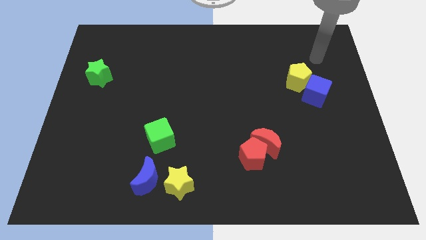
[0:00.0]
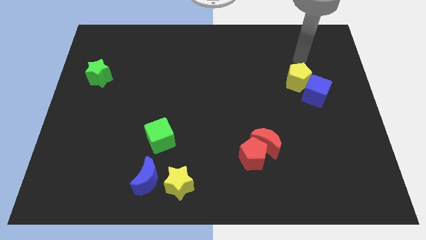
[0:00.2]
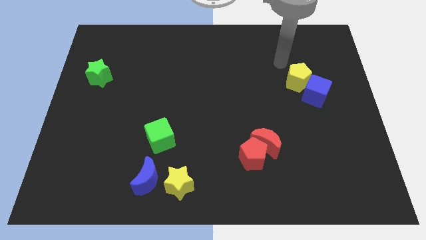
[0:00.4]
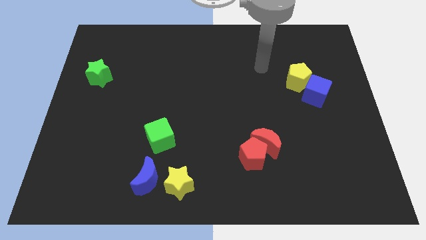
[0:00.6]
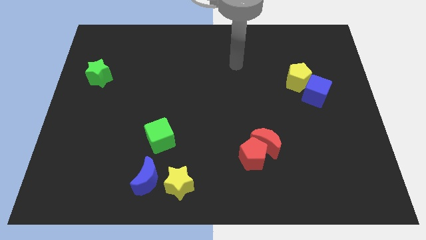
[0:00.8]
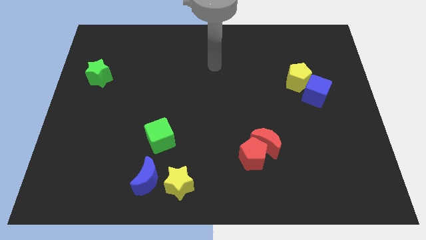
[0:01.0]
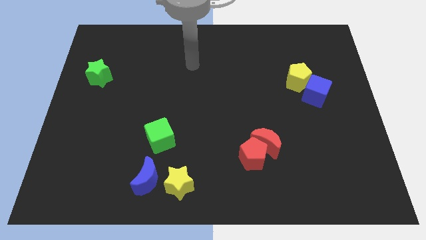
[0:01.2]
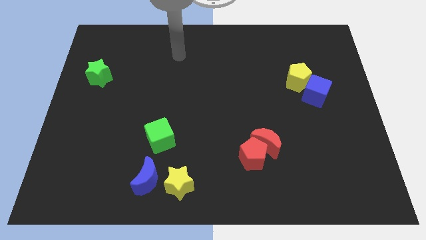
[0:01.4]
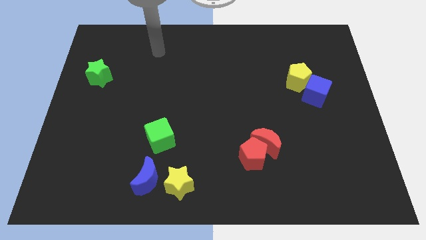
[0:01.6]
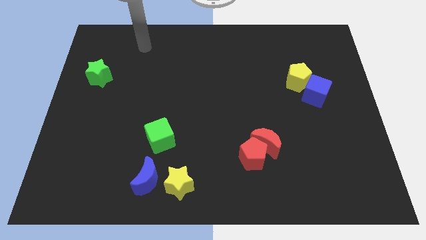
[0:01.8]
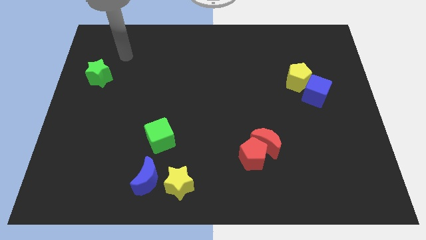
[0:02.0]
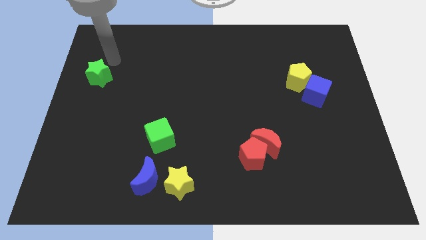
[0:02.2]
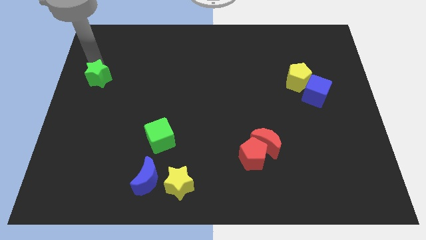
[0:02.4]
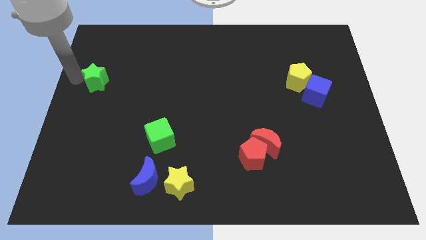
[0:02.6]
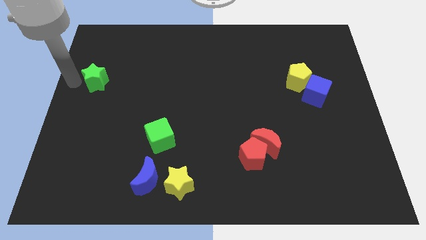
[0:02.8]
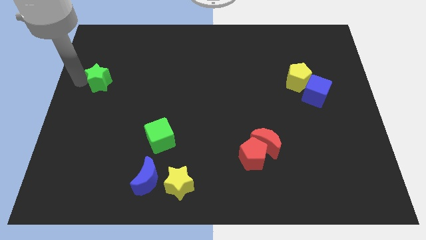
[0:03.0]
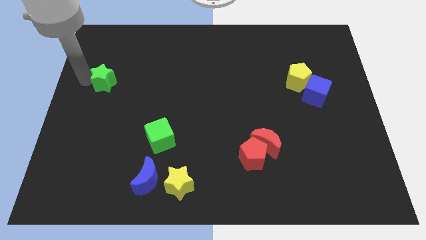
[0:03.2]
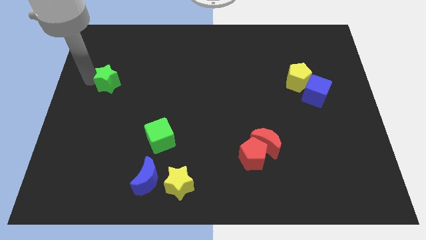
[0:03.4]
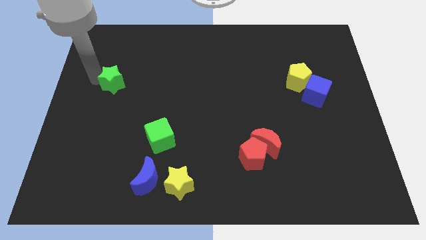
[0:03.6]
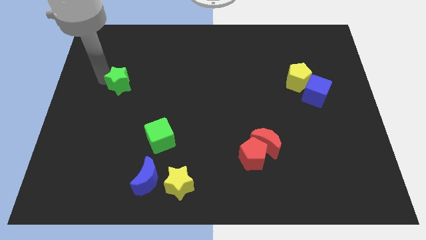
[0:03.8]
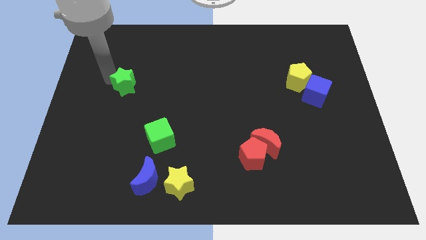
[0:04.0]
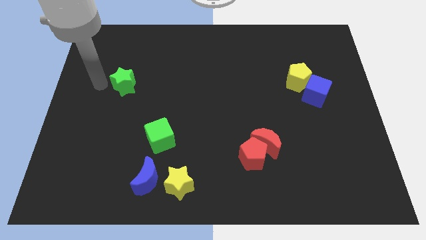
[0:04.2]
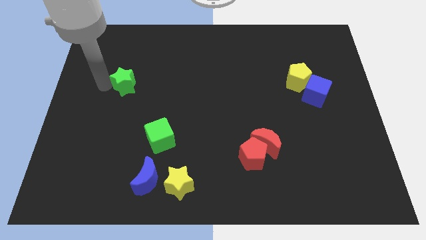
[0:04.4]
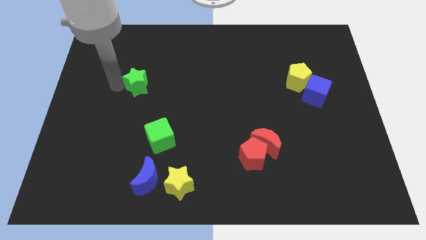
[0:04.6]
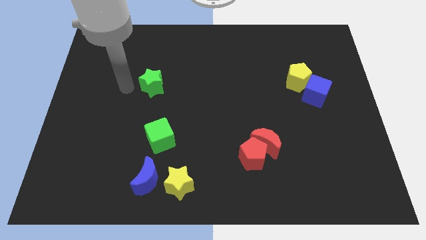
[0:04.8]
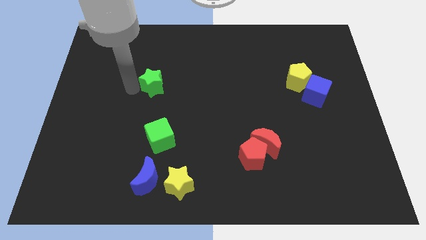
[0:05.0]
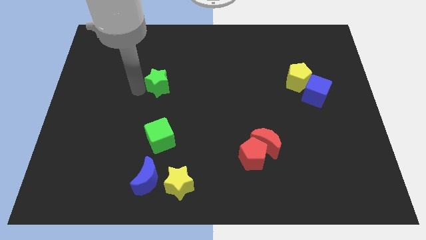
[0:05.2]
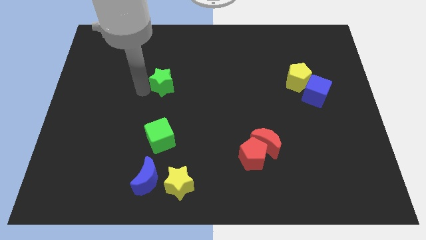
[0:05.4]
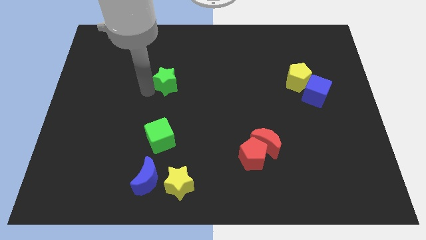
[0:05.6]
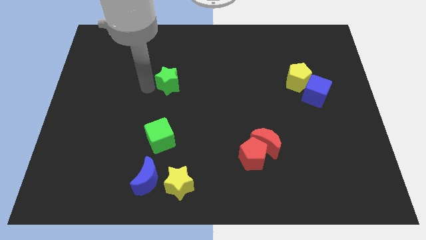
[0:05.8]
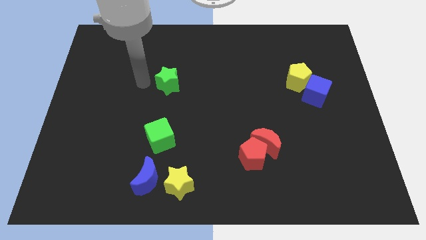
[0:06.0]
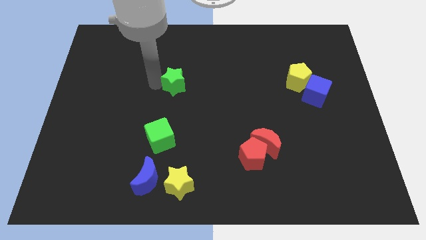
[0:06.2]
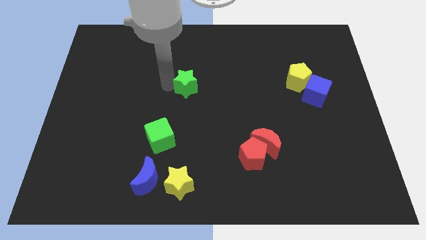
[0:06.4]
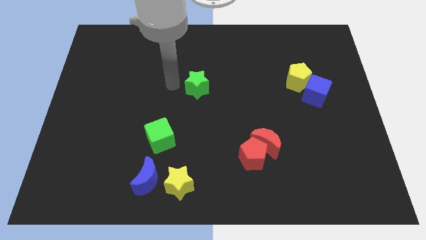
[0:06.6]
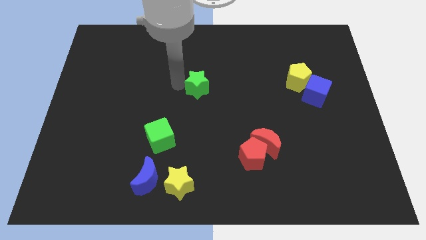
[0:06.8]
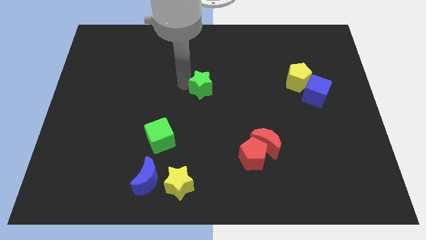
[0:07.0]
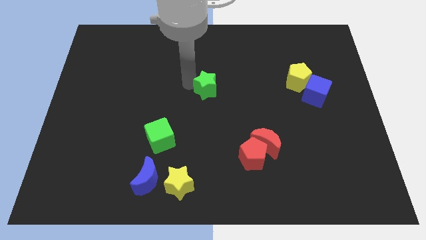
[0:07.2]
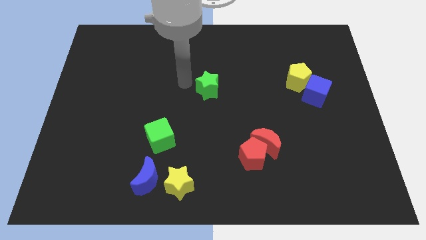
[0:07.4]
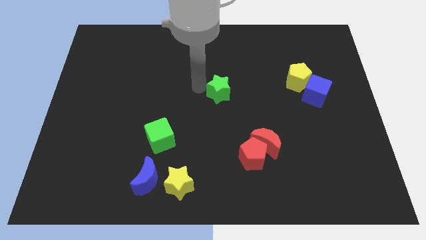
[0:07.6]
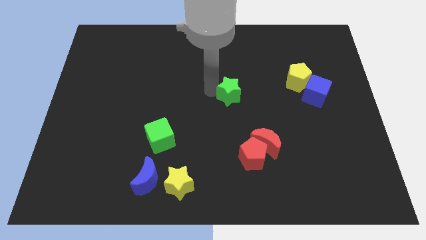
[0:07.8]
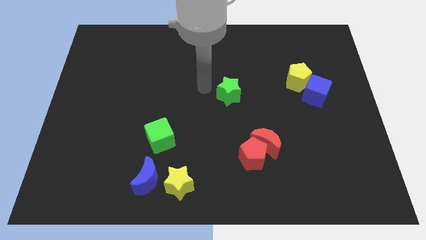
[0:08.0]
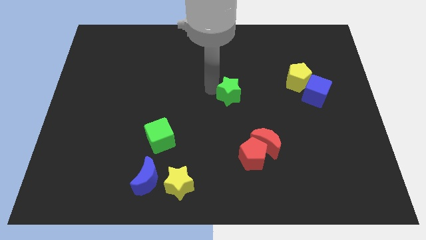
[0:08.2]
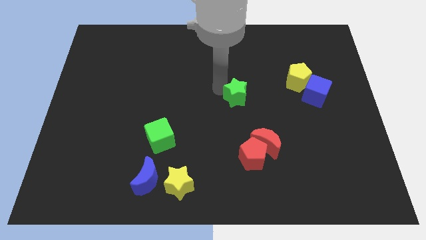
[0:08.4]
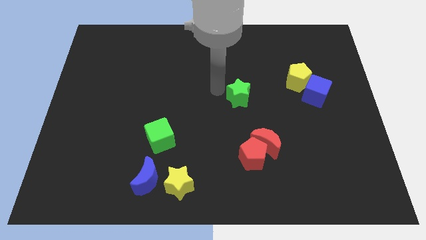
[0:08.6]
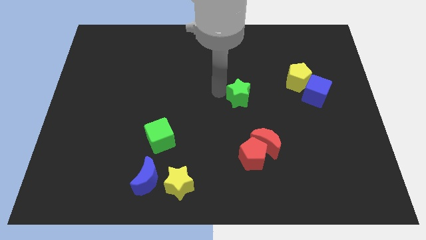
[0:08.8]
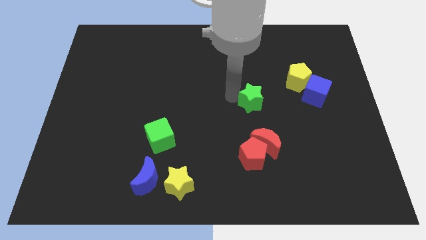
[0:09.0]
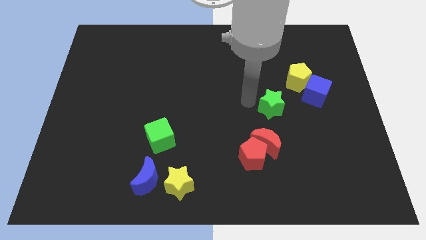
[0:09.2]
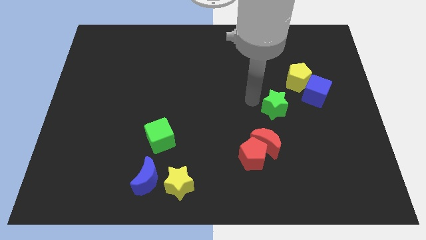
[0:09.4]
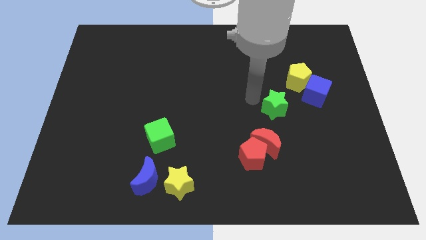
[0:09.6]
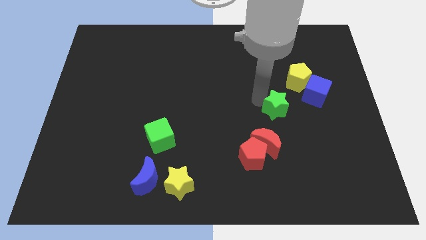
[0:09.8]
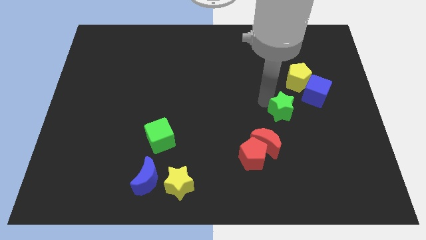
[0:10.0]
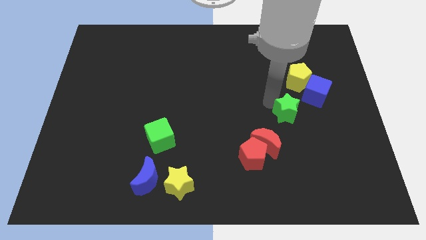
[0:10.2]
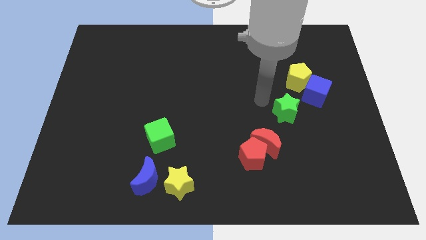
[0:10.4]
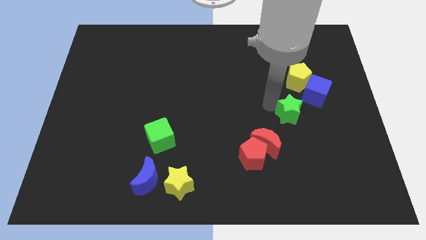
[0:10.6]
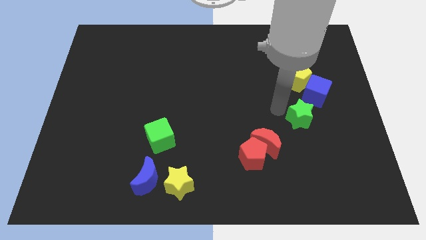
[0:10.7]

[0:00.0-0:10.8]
slide the green star below the blue cube
